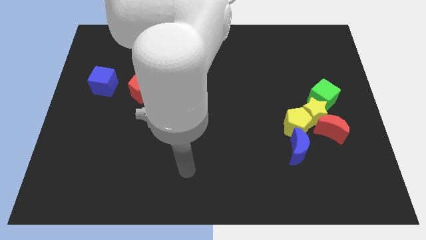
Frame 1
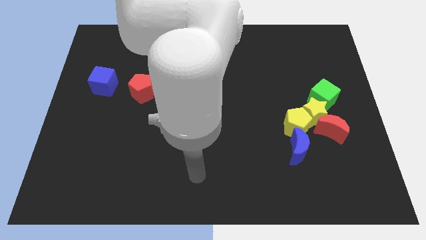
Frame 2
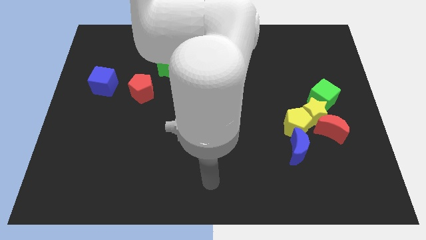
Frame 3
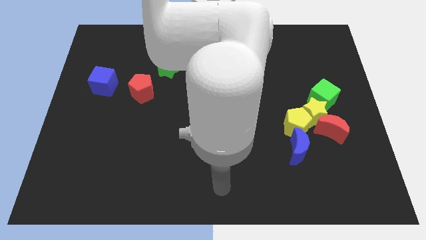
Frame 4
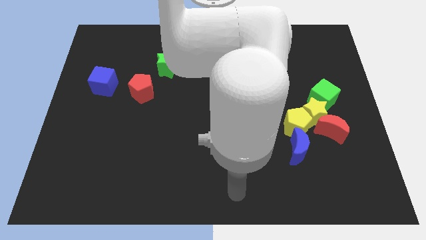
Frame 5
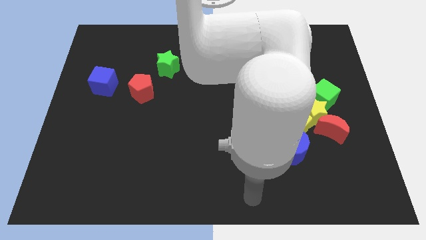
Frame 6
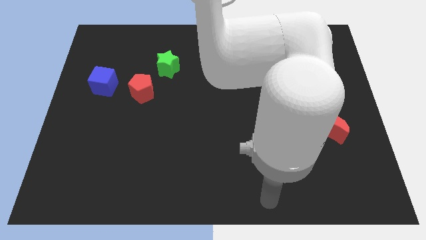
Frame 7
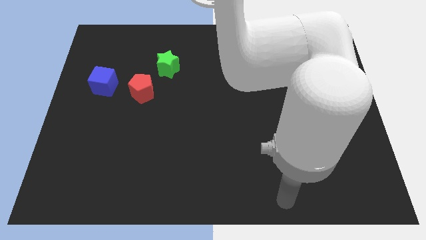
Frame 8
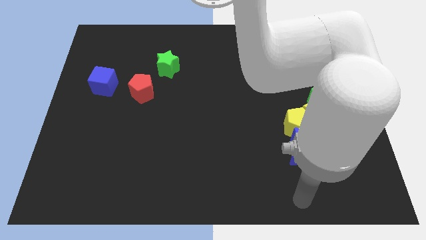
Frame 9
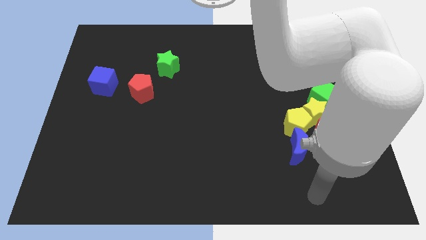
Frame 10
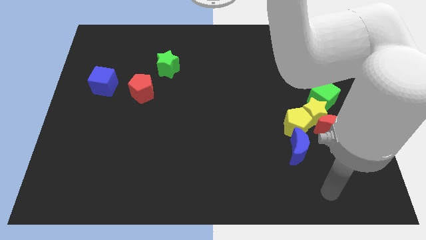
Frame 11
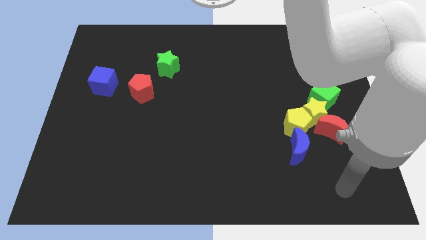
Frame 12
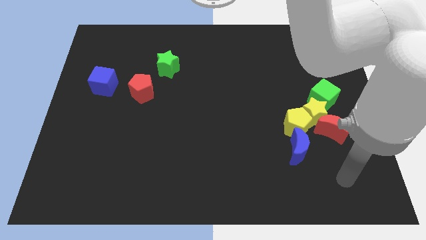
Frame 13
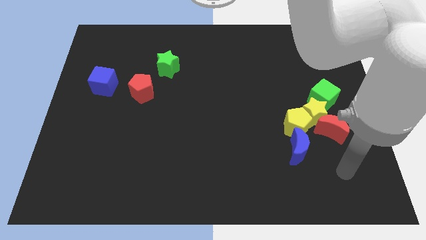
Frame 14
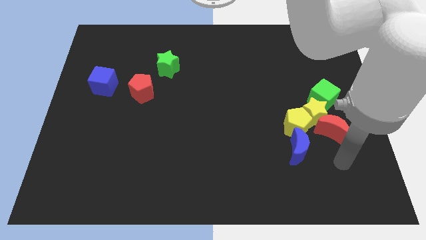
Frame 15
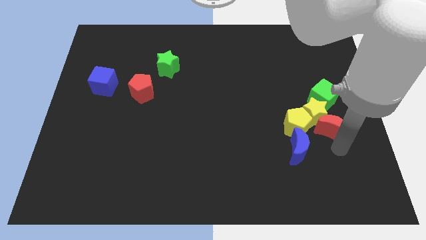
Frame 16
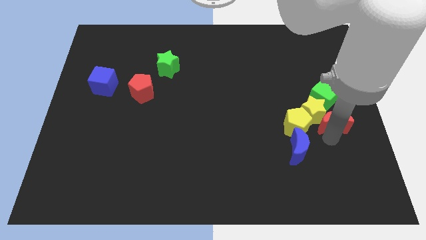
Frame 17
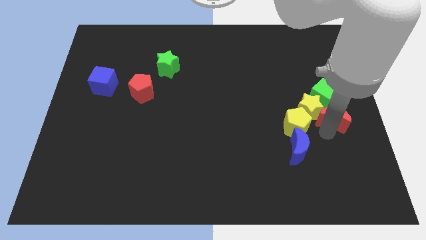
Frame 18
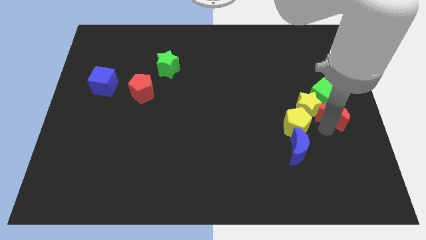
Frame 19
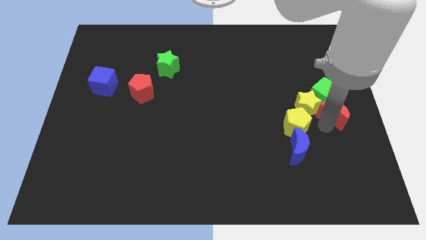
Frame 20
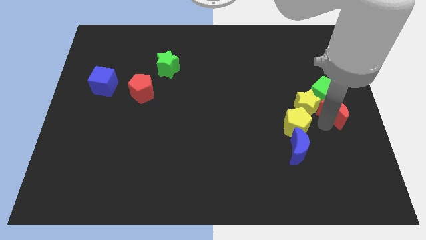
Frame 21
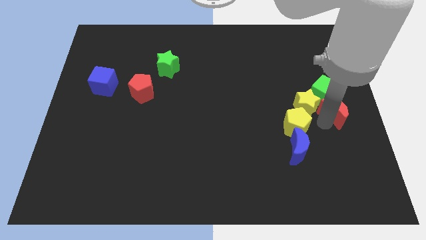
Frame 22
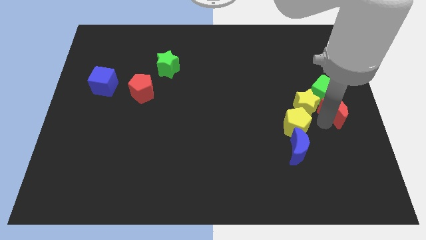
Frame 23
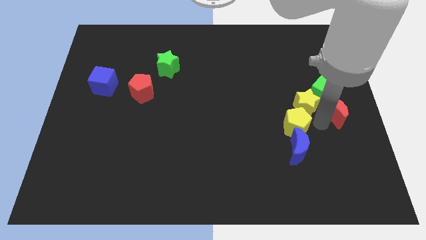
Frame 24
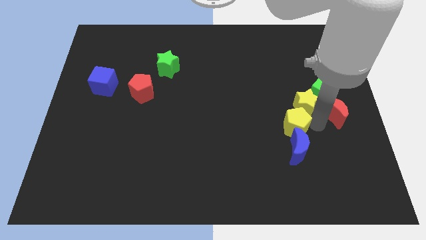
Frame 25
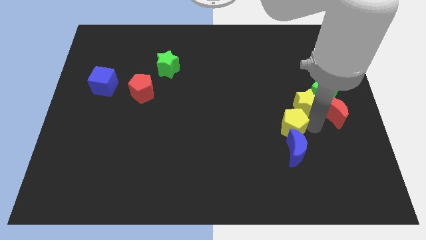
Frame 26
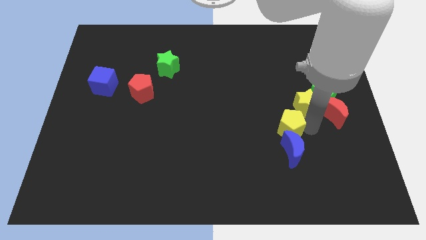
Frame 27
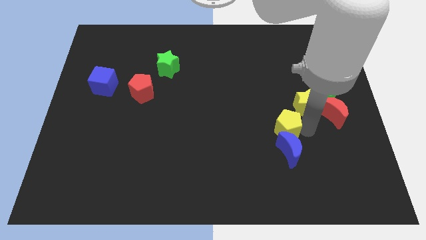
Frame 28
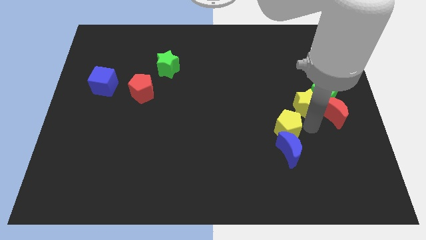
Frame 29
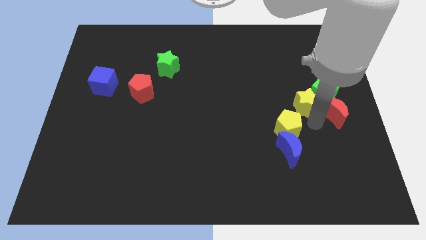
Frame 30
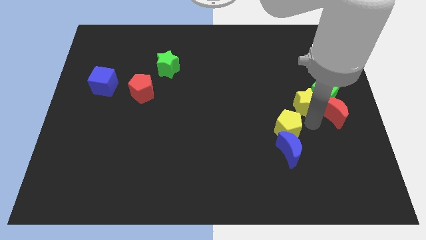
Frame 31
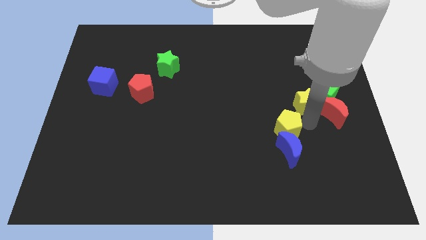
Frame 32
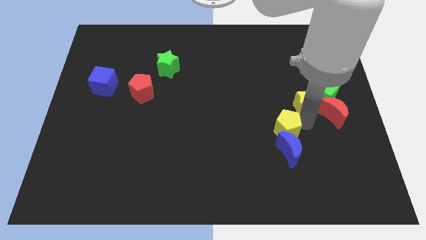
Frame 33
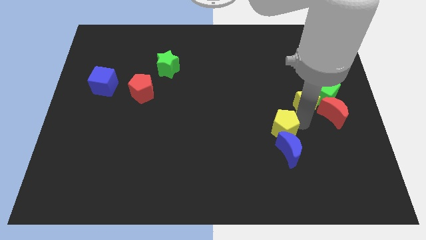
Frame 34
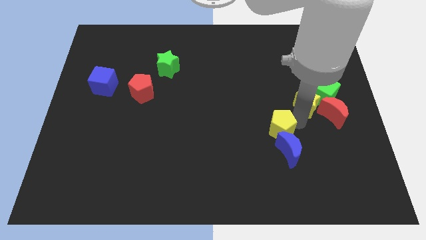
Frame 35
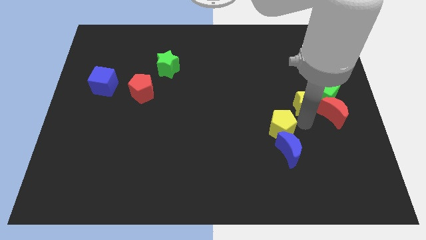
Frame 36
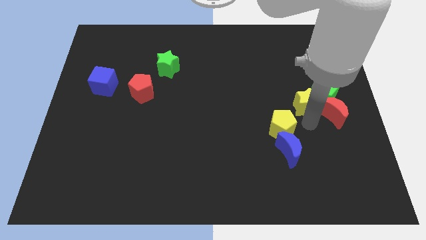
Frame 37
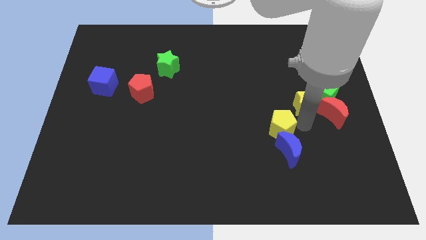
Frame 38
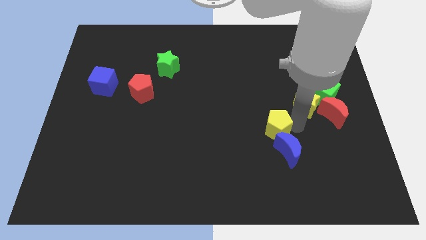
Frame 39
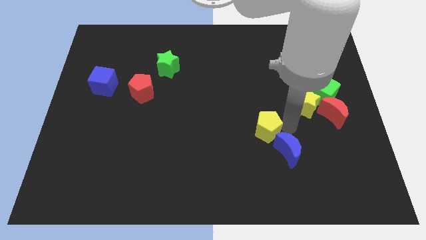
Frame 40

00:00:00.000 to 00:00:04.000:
separate the yellow pentagon from the clump

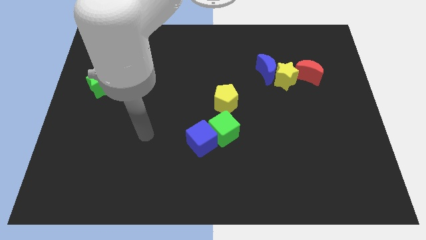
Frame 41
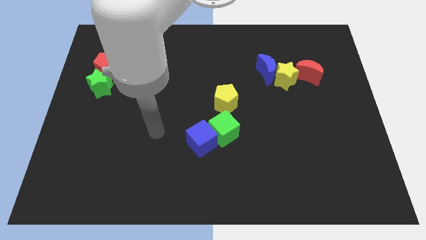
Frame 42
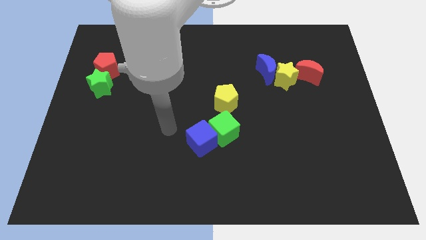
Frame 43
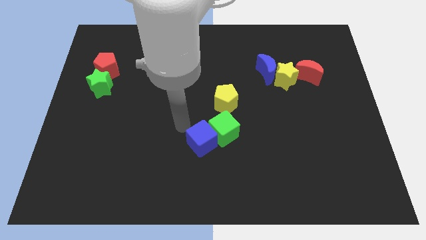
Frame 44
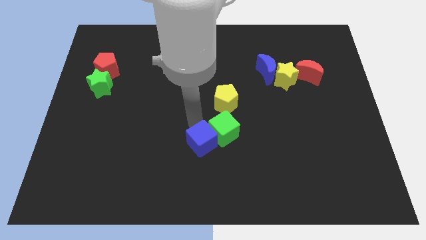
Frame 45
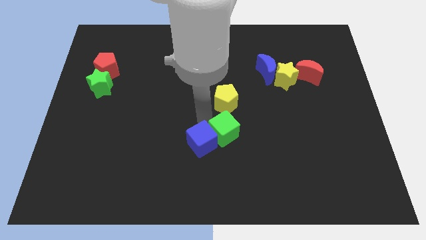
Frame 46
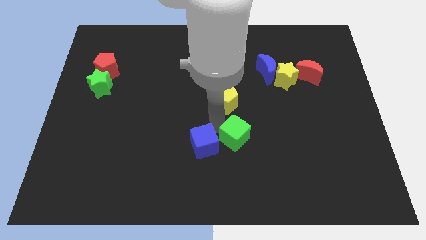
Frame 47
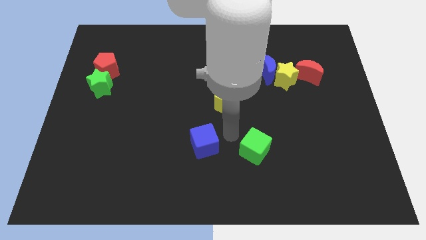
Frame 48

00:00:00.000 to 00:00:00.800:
separate the blue cube from the green cube

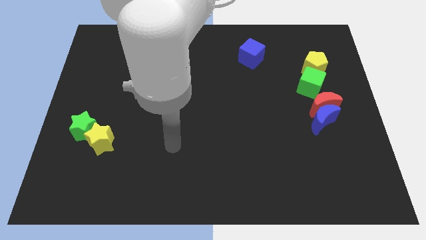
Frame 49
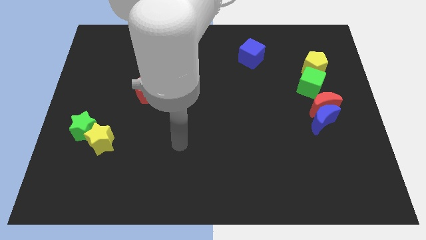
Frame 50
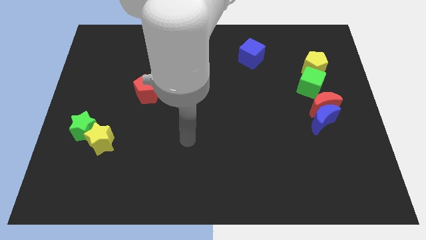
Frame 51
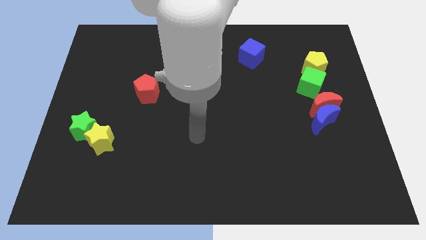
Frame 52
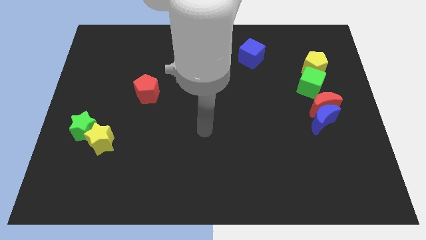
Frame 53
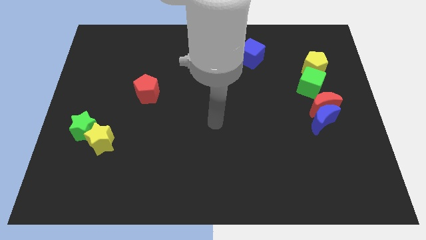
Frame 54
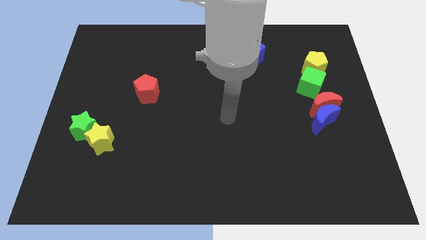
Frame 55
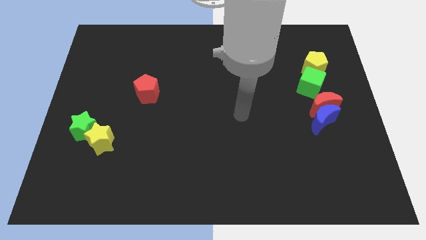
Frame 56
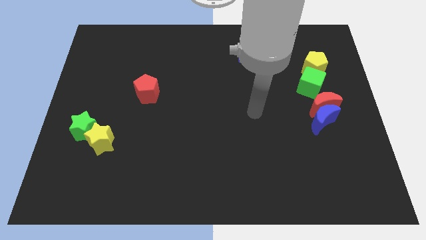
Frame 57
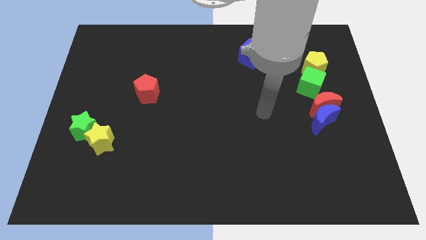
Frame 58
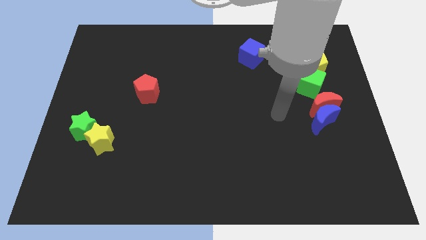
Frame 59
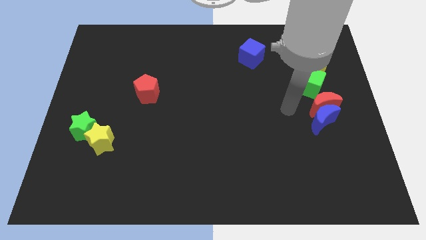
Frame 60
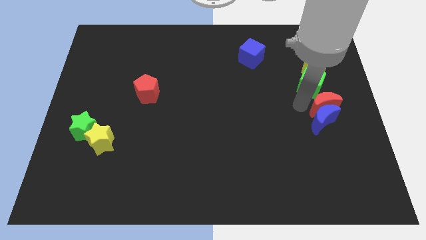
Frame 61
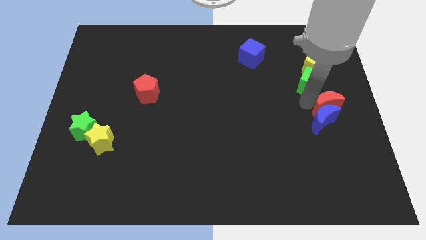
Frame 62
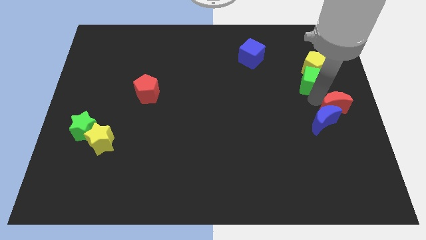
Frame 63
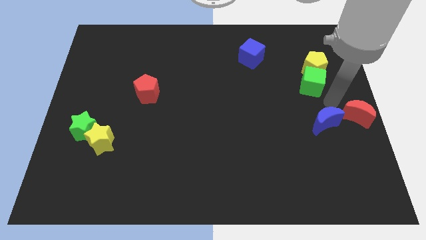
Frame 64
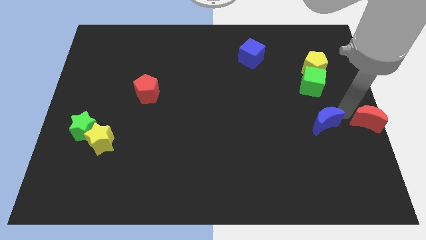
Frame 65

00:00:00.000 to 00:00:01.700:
pull the blue moon apart from the red moon

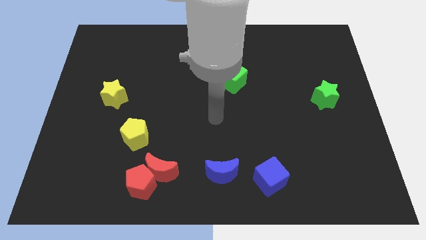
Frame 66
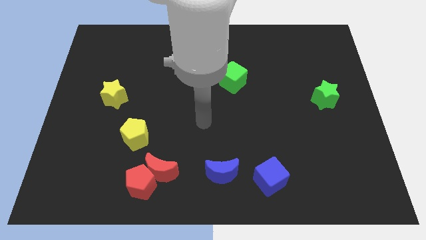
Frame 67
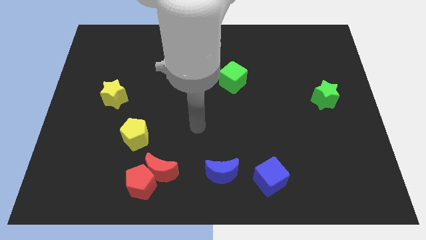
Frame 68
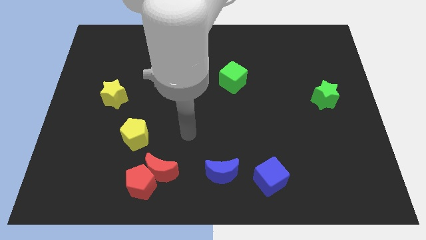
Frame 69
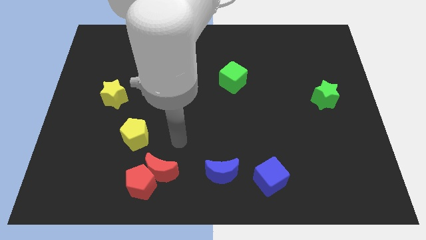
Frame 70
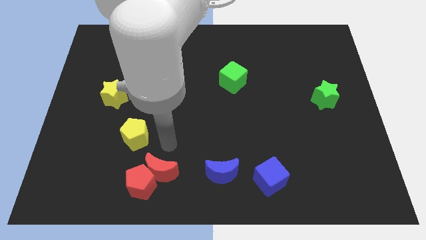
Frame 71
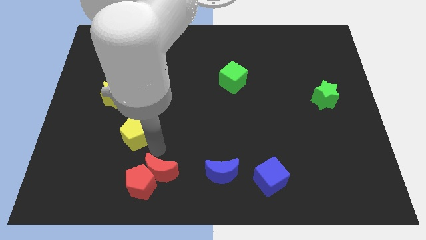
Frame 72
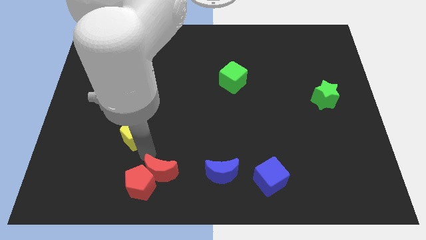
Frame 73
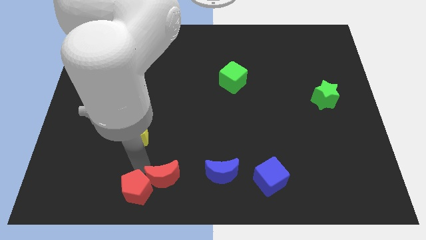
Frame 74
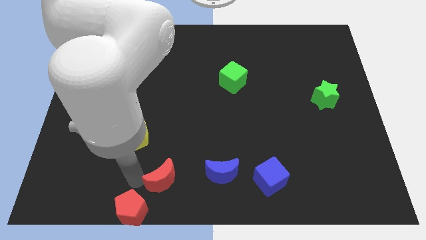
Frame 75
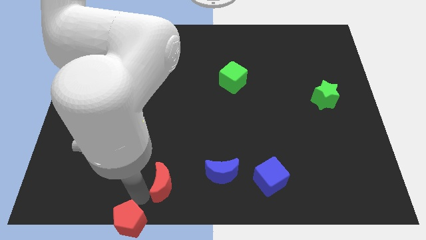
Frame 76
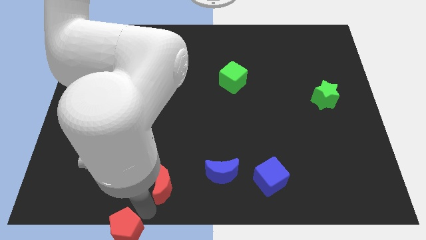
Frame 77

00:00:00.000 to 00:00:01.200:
separate the red moon from the red pentagon

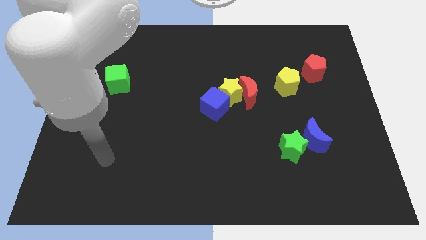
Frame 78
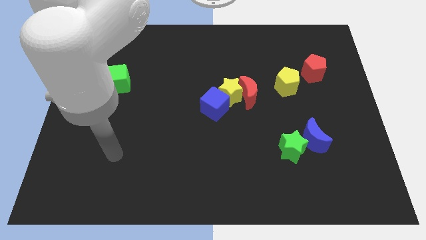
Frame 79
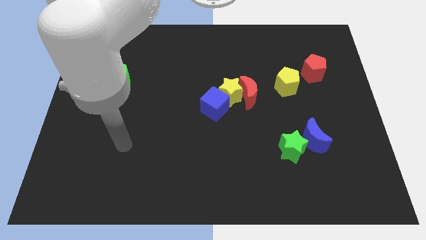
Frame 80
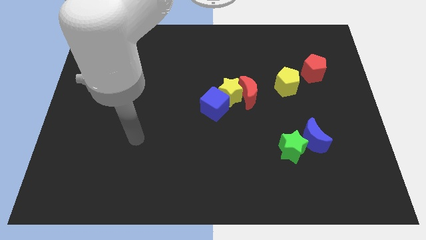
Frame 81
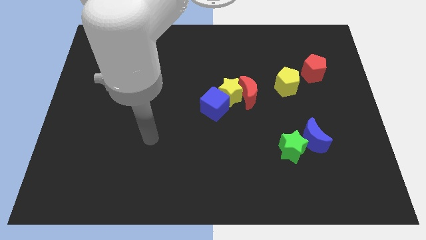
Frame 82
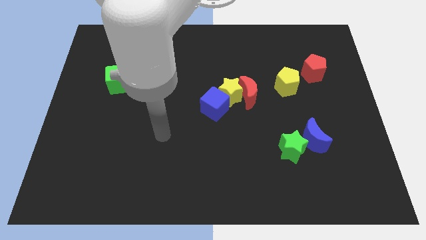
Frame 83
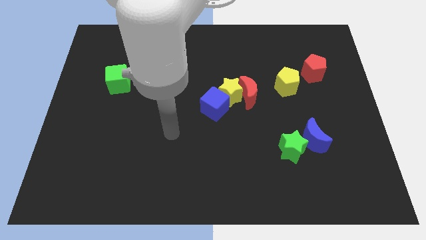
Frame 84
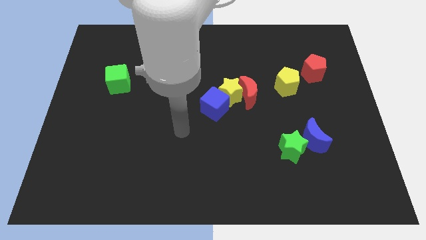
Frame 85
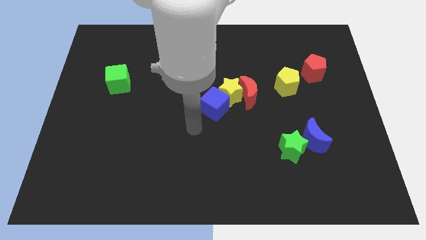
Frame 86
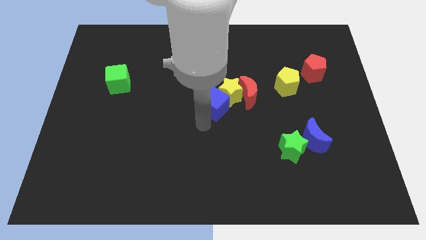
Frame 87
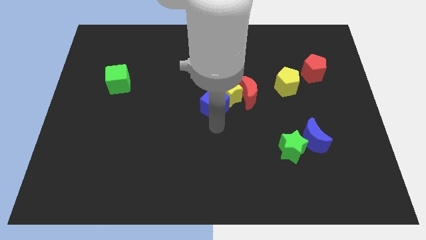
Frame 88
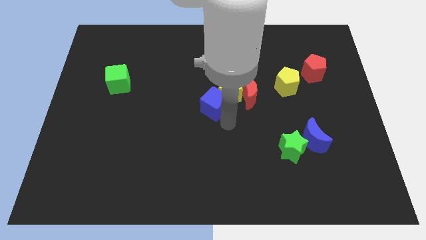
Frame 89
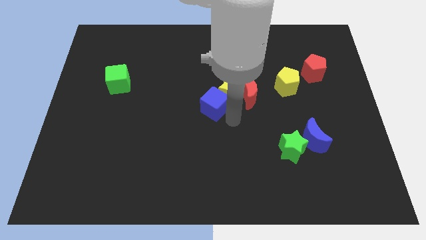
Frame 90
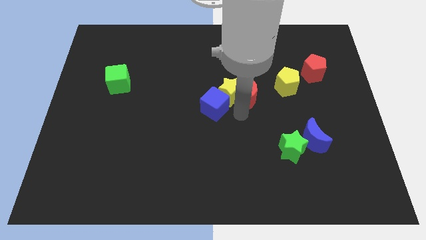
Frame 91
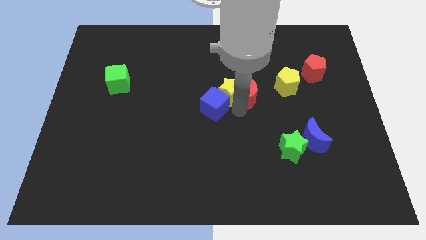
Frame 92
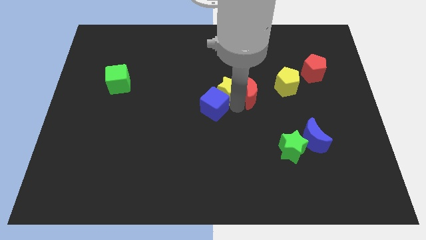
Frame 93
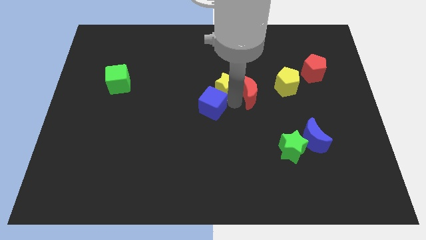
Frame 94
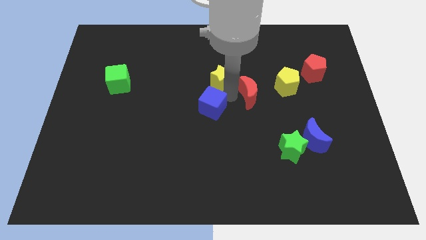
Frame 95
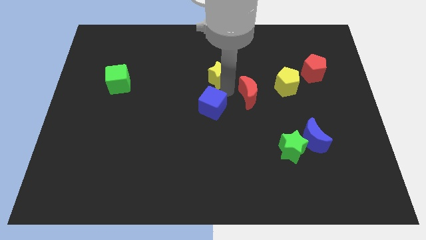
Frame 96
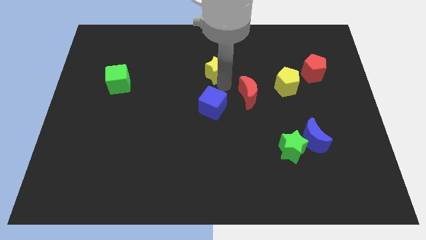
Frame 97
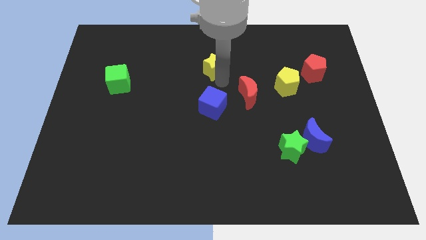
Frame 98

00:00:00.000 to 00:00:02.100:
move the yellow star away from the red moon and blue cube
